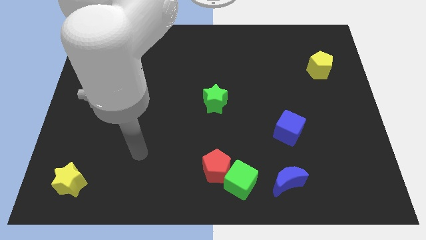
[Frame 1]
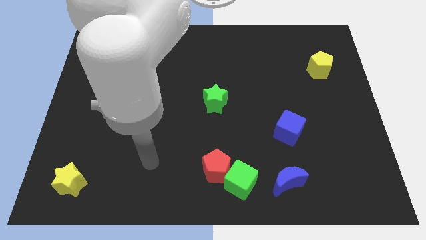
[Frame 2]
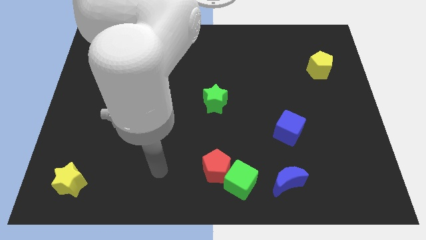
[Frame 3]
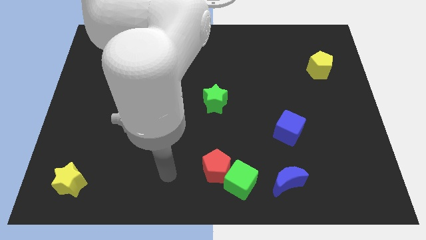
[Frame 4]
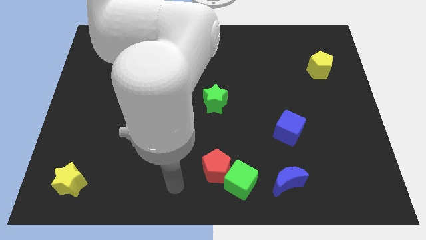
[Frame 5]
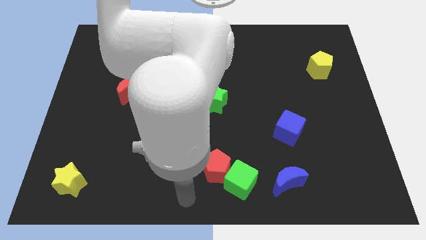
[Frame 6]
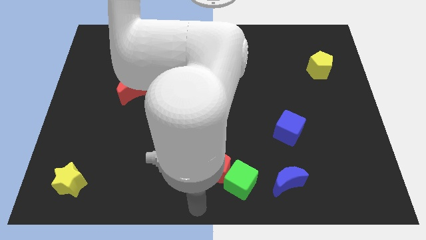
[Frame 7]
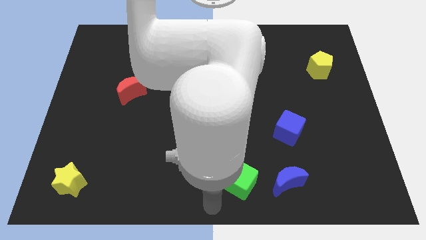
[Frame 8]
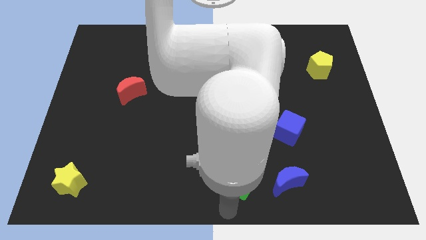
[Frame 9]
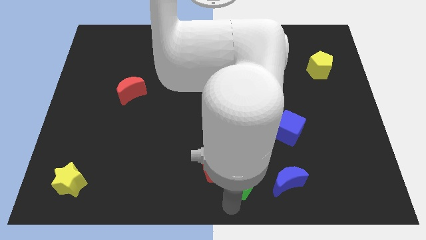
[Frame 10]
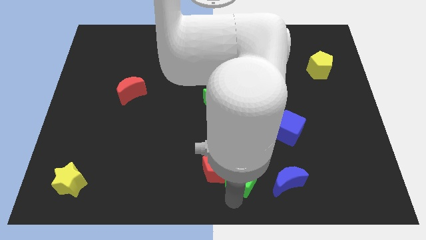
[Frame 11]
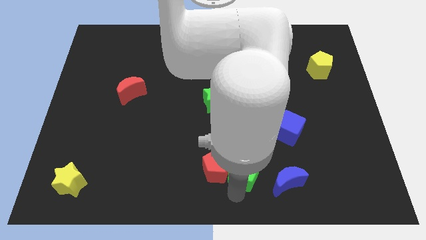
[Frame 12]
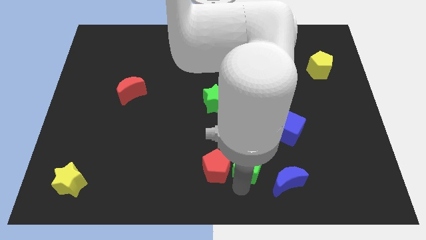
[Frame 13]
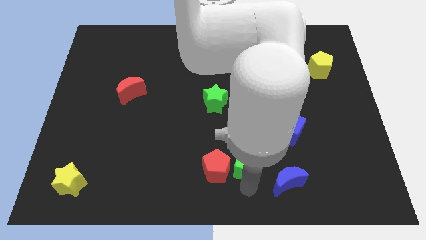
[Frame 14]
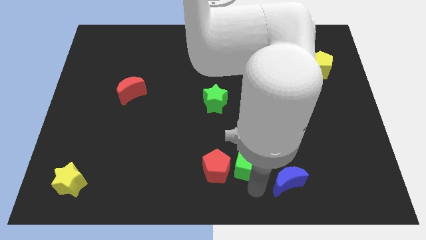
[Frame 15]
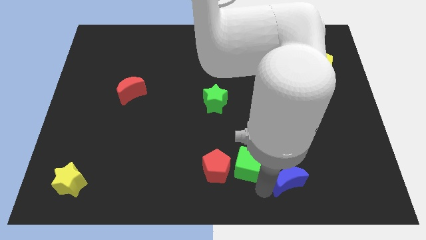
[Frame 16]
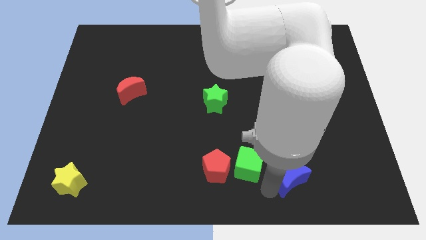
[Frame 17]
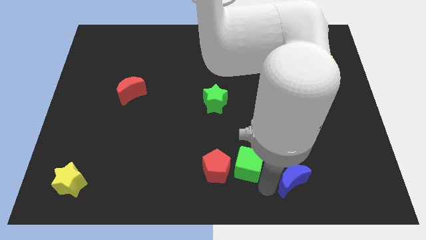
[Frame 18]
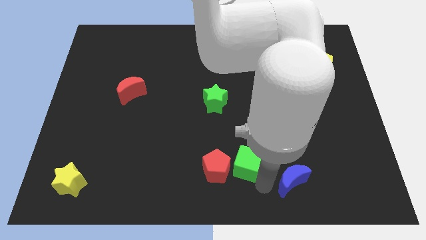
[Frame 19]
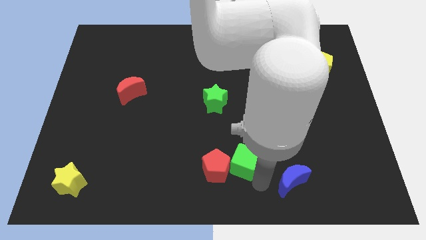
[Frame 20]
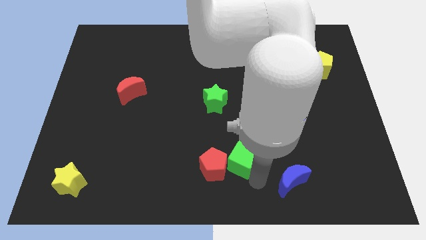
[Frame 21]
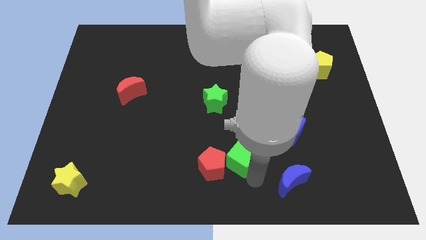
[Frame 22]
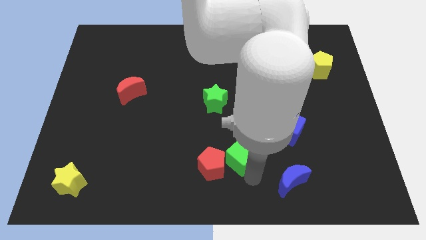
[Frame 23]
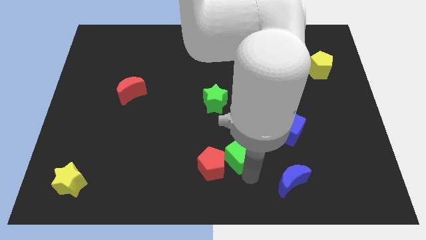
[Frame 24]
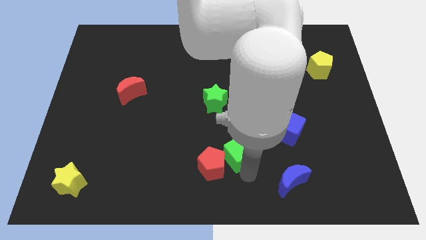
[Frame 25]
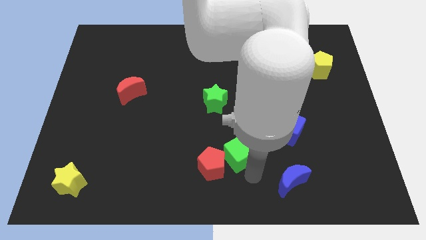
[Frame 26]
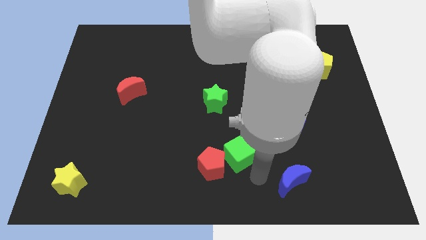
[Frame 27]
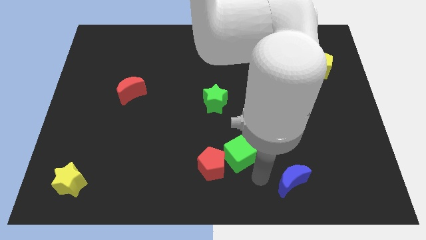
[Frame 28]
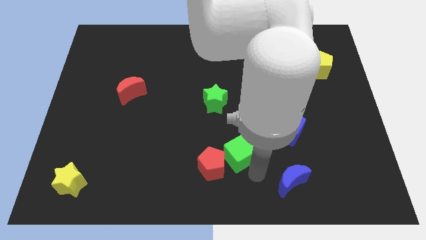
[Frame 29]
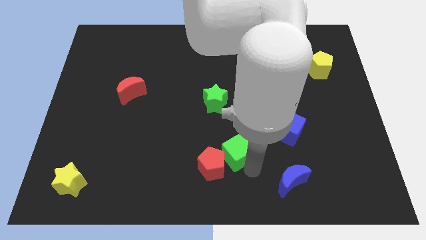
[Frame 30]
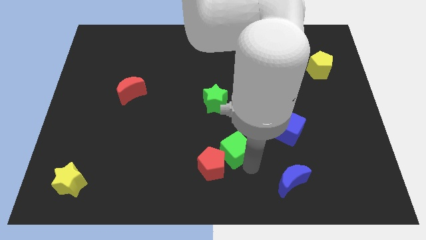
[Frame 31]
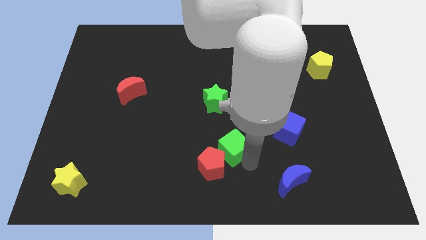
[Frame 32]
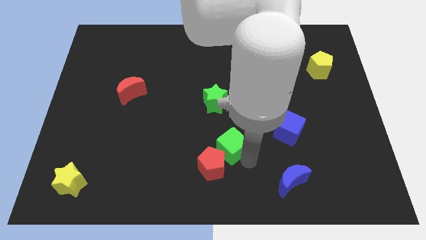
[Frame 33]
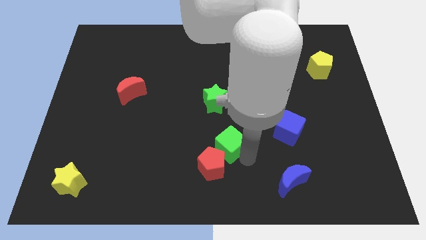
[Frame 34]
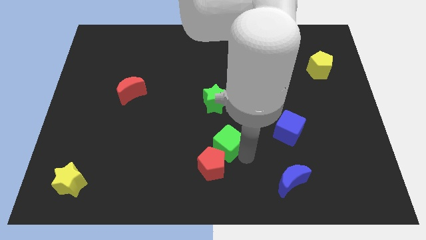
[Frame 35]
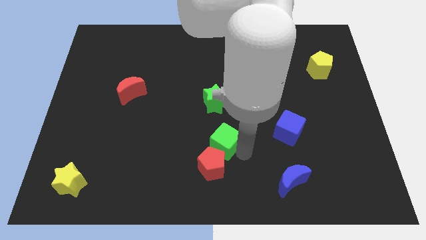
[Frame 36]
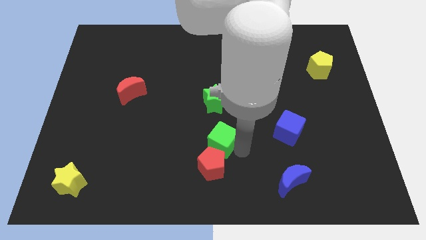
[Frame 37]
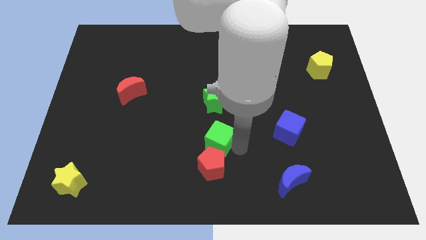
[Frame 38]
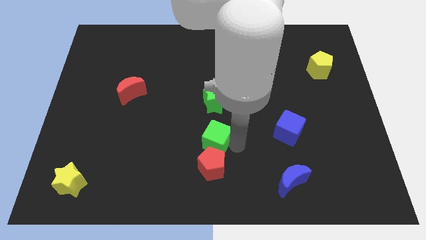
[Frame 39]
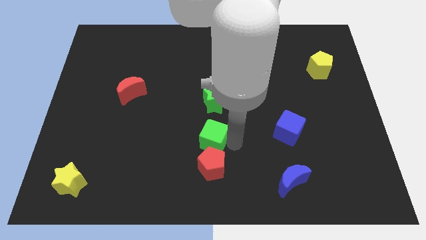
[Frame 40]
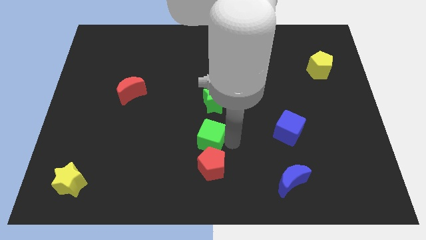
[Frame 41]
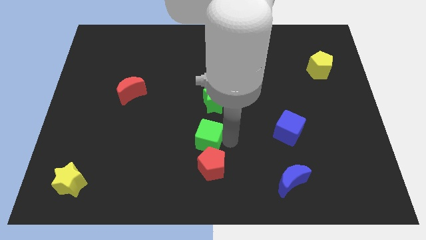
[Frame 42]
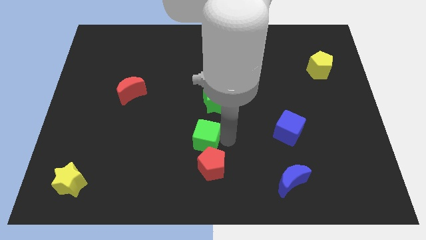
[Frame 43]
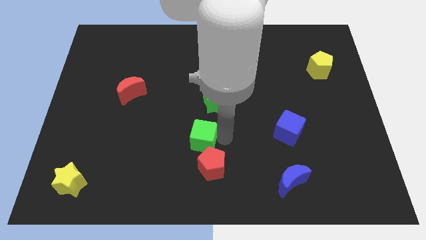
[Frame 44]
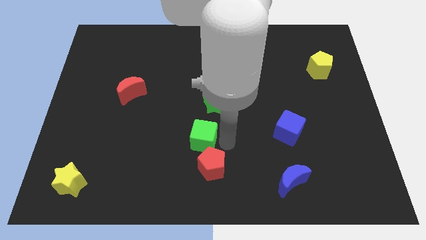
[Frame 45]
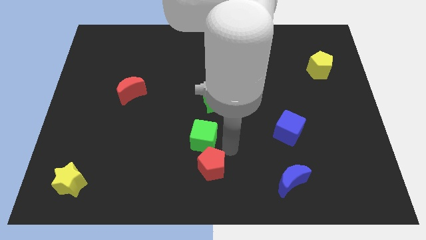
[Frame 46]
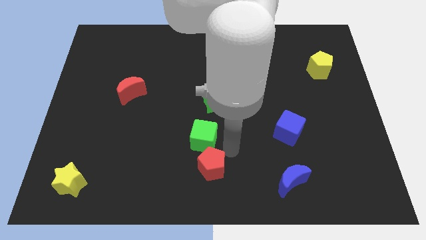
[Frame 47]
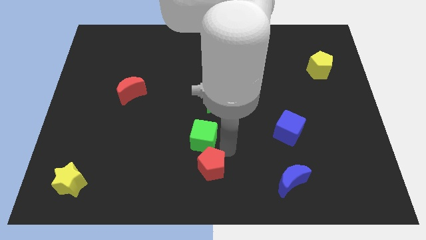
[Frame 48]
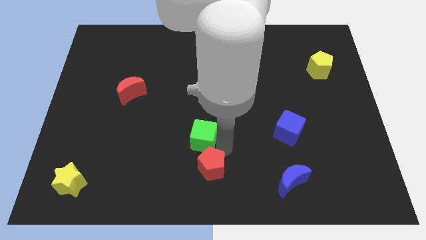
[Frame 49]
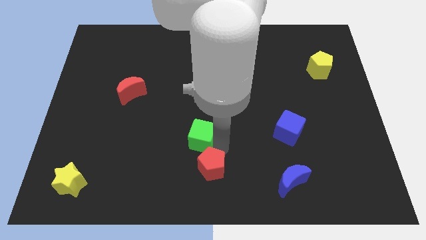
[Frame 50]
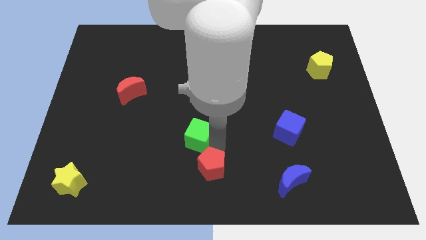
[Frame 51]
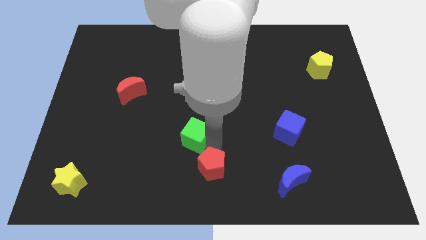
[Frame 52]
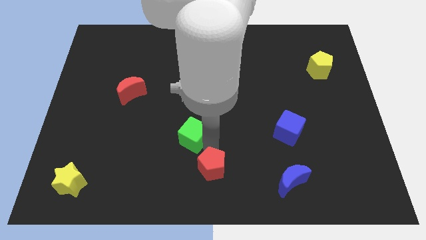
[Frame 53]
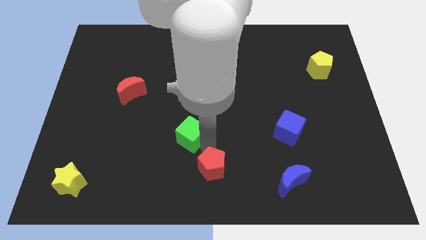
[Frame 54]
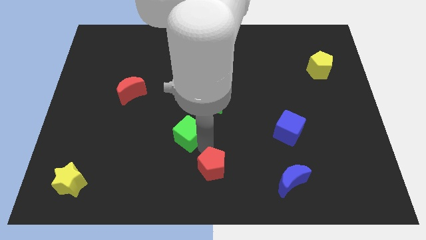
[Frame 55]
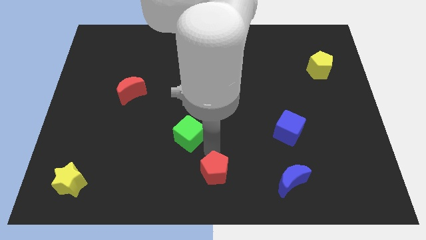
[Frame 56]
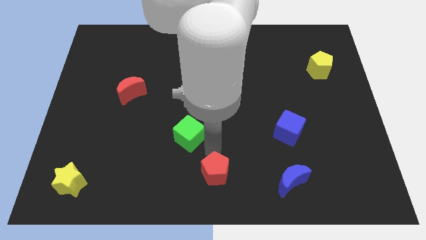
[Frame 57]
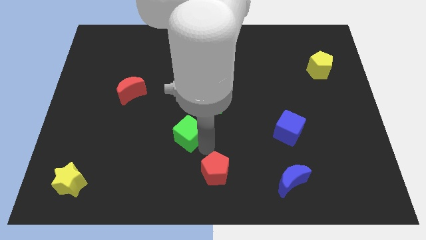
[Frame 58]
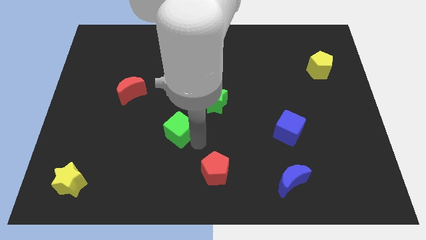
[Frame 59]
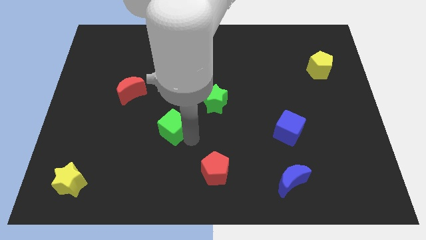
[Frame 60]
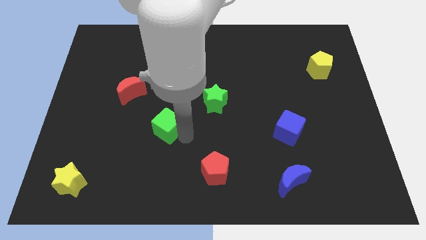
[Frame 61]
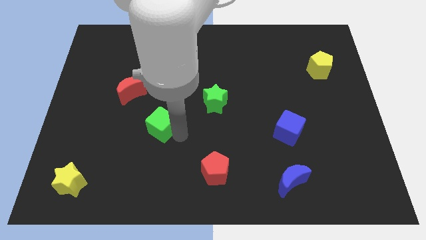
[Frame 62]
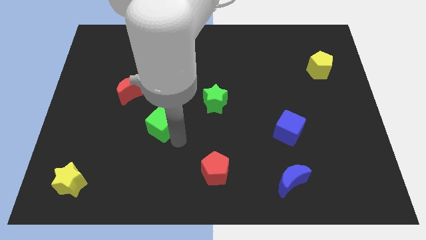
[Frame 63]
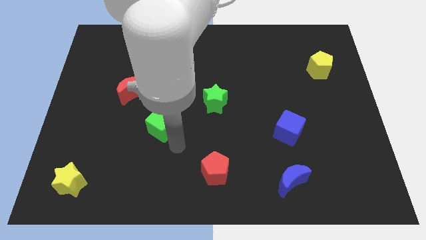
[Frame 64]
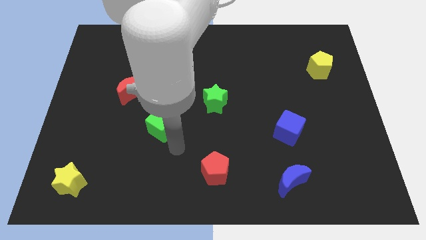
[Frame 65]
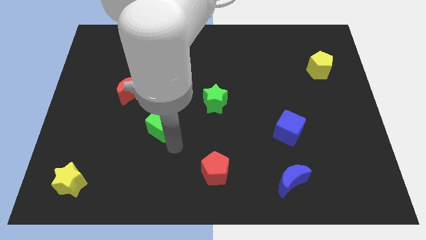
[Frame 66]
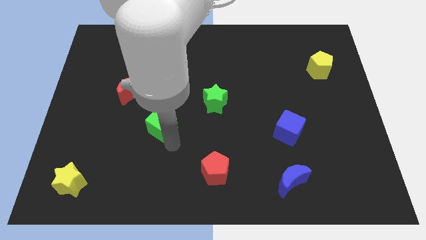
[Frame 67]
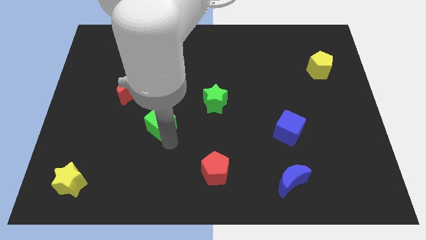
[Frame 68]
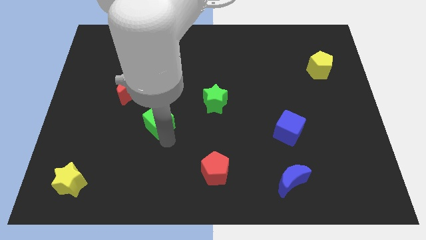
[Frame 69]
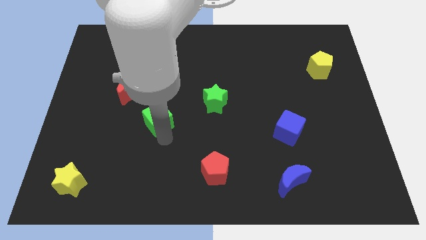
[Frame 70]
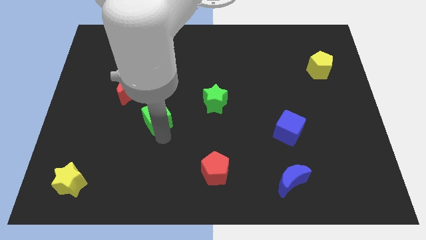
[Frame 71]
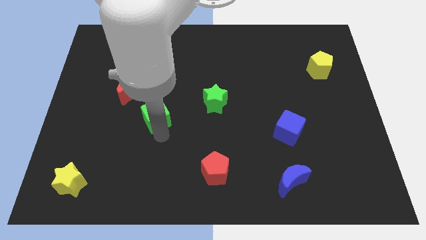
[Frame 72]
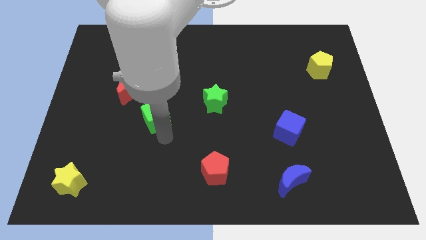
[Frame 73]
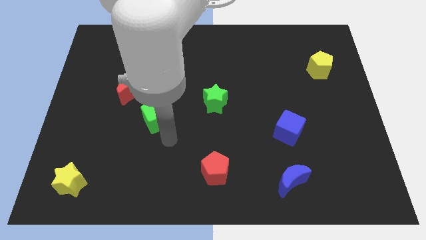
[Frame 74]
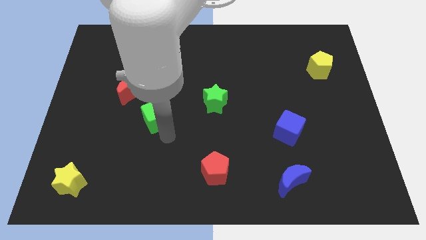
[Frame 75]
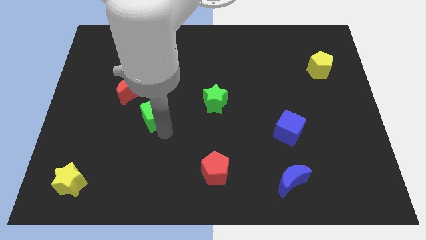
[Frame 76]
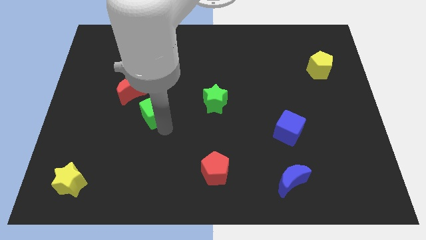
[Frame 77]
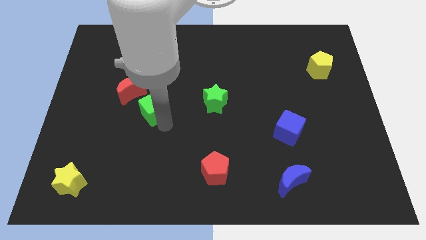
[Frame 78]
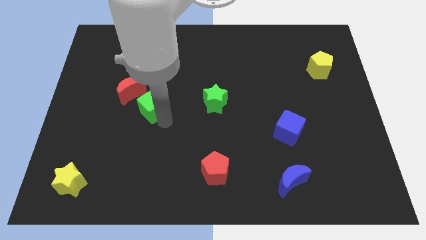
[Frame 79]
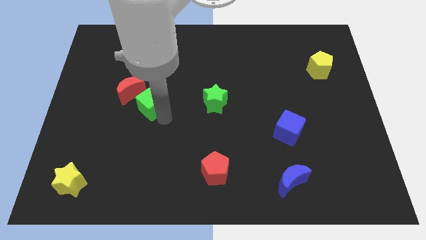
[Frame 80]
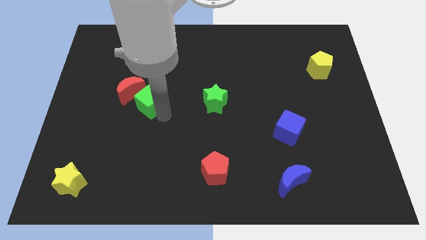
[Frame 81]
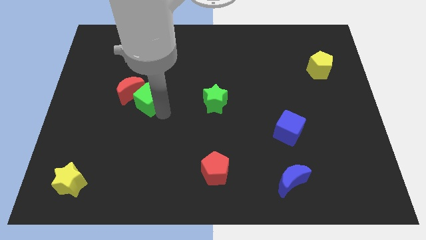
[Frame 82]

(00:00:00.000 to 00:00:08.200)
put the green cube close to the red moon
